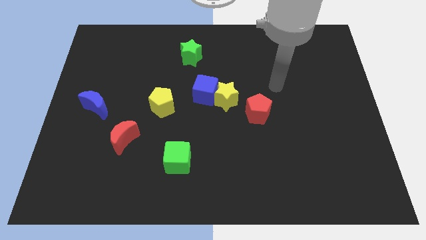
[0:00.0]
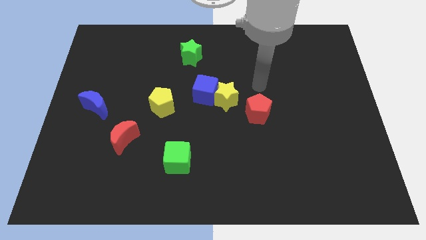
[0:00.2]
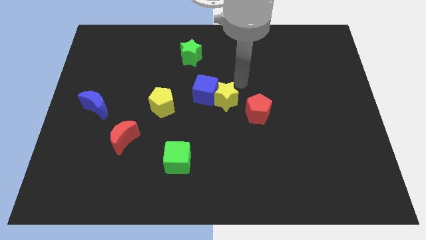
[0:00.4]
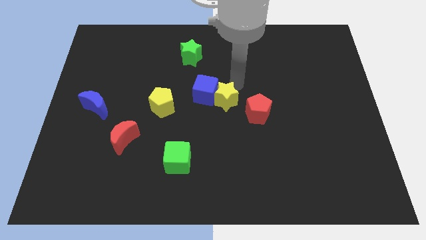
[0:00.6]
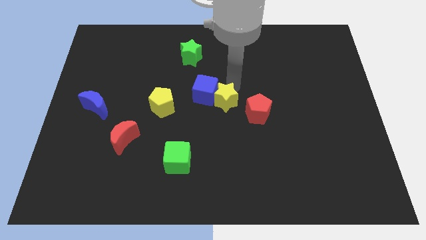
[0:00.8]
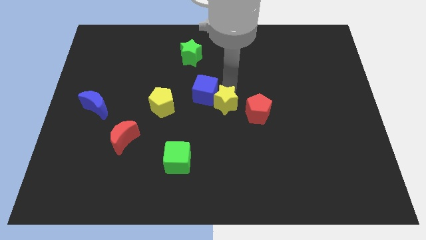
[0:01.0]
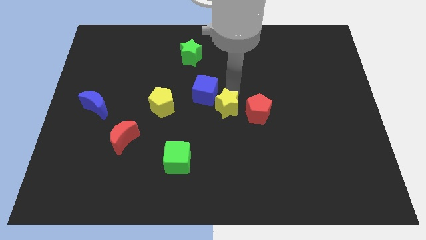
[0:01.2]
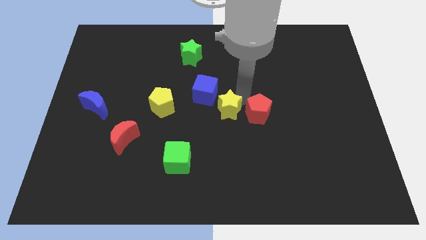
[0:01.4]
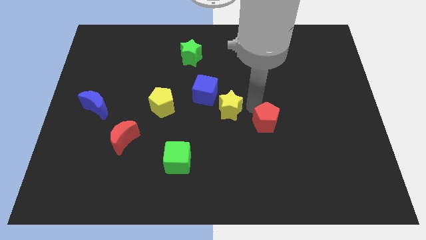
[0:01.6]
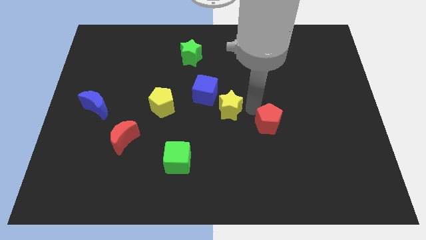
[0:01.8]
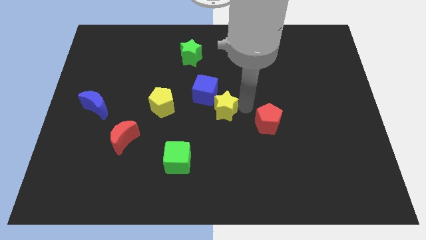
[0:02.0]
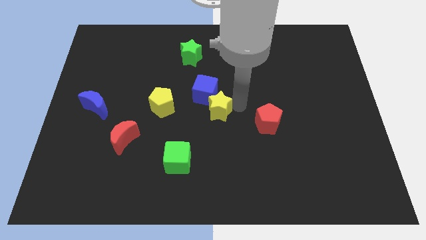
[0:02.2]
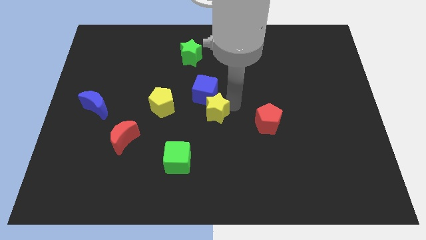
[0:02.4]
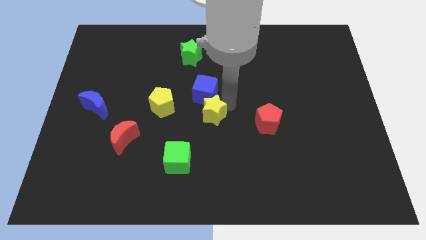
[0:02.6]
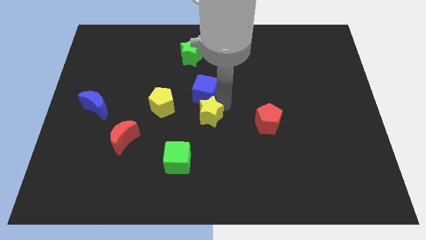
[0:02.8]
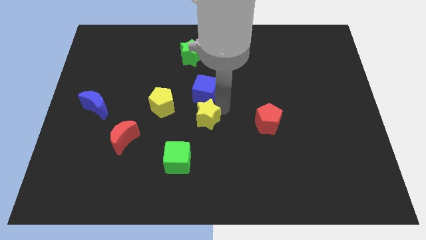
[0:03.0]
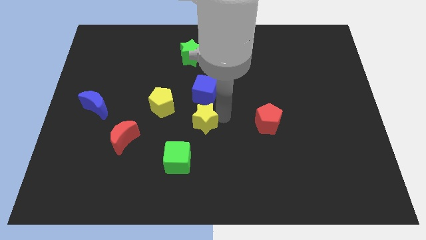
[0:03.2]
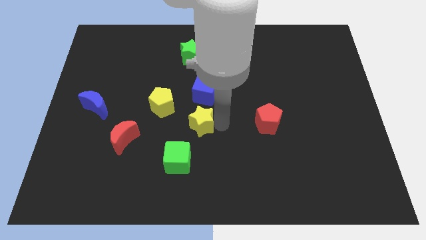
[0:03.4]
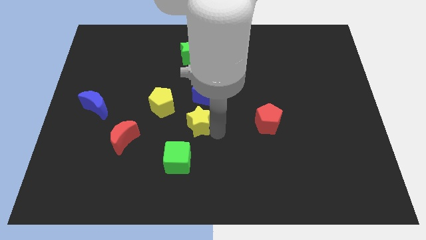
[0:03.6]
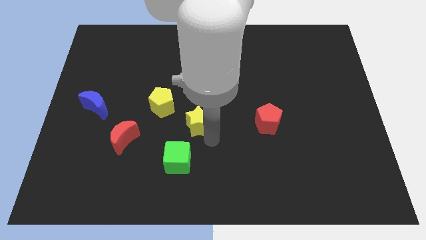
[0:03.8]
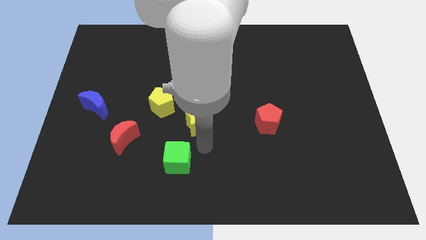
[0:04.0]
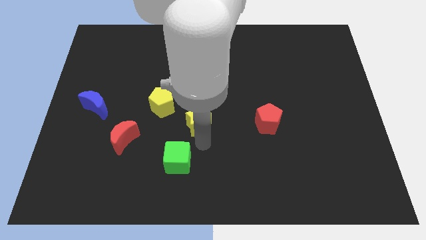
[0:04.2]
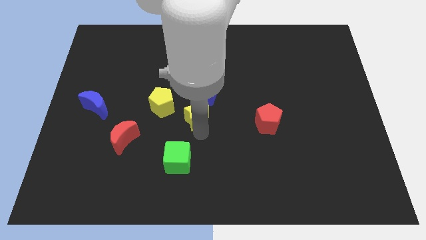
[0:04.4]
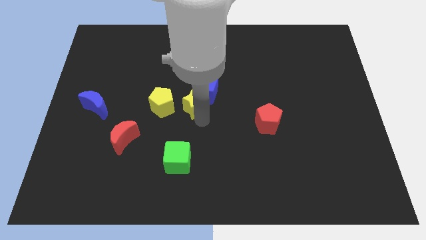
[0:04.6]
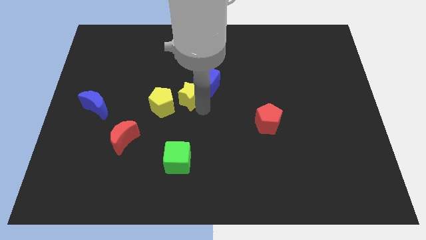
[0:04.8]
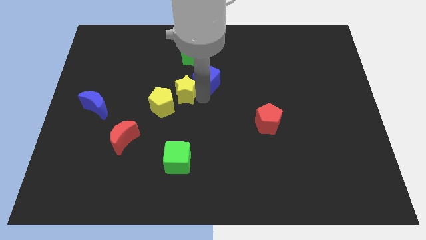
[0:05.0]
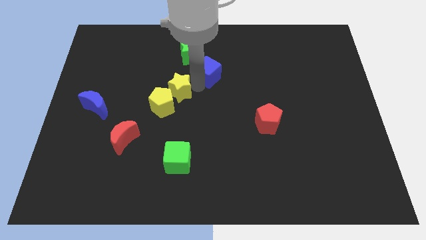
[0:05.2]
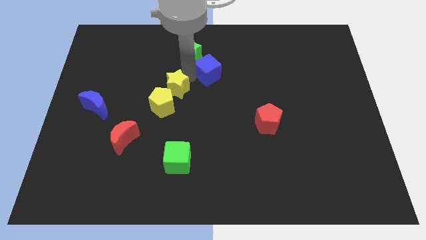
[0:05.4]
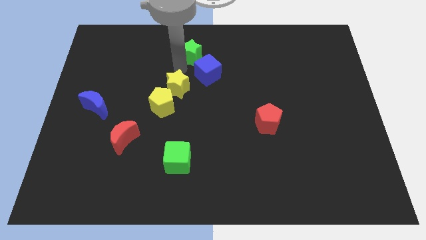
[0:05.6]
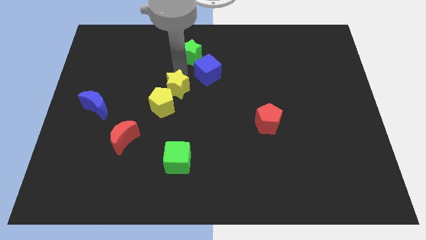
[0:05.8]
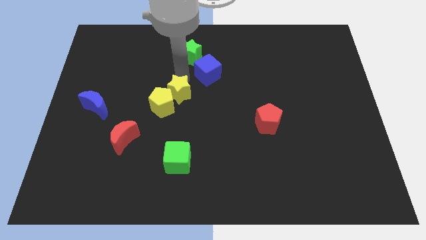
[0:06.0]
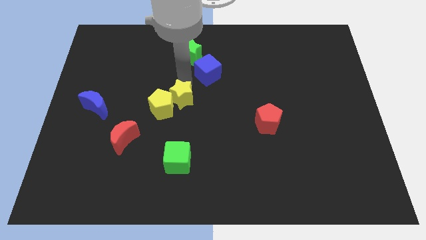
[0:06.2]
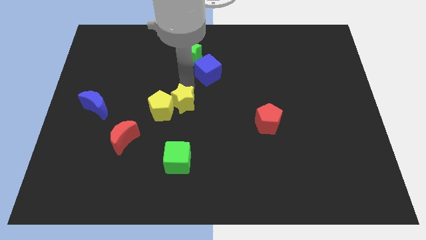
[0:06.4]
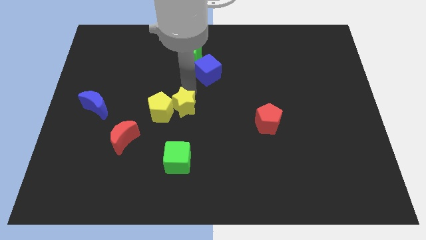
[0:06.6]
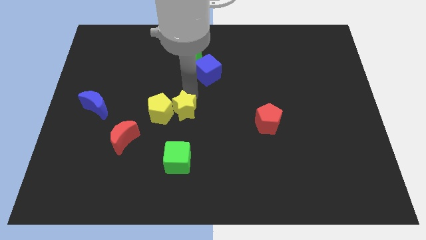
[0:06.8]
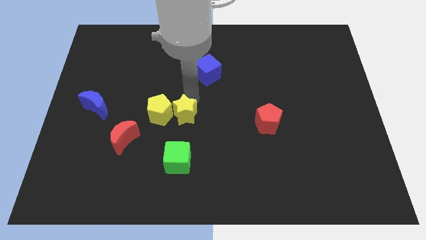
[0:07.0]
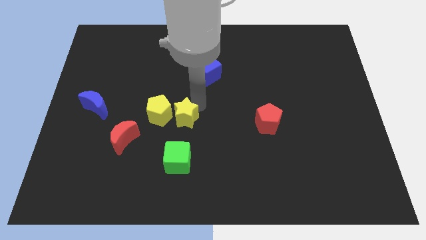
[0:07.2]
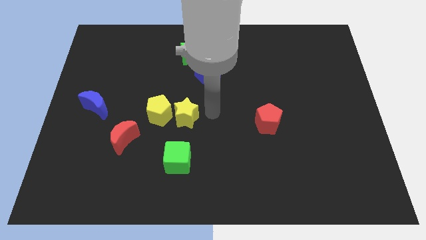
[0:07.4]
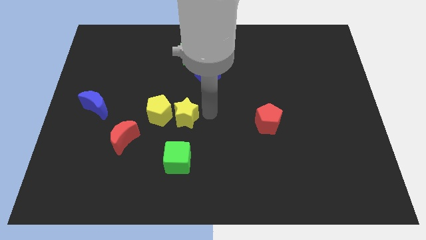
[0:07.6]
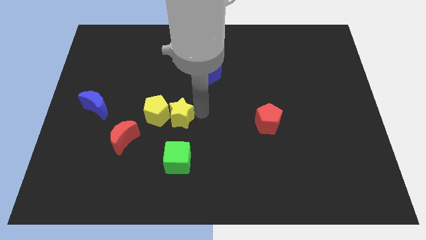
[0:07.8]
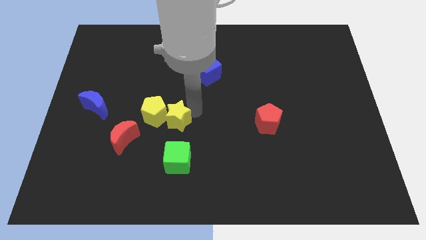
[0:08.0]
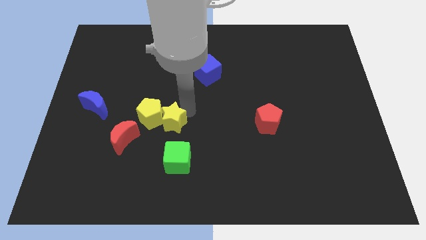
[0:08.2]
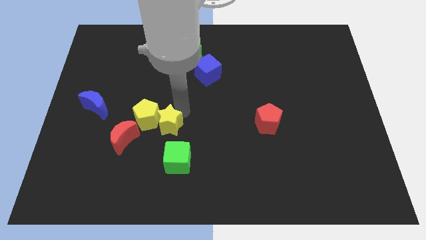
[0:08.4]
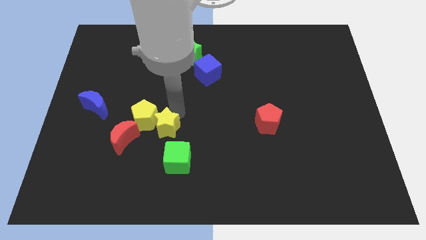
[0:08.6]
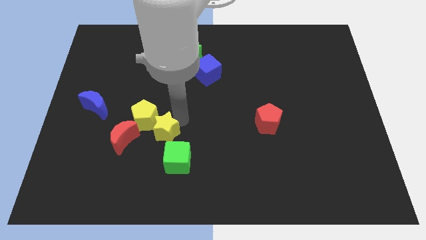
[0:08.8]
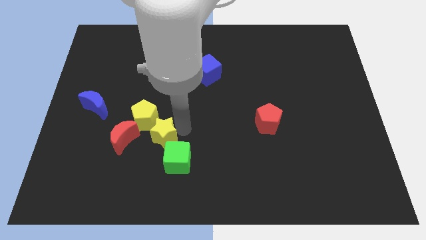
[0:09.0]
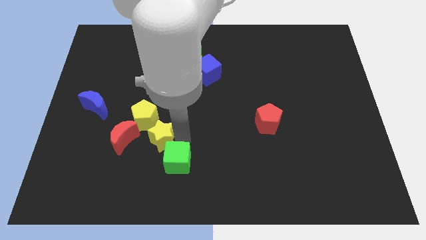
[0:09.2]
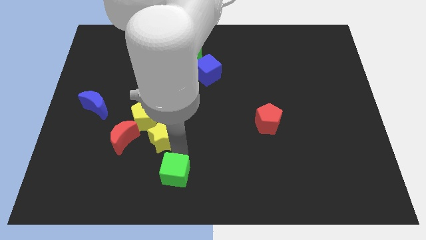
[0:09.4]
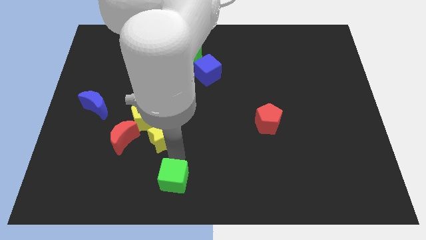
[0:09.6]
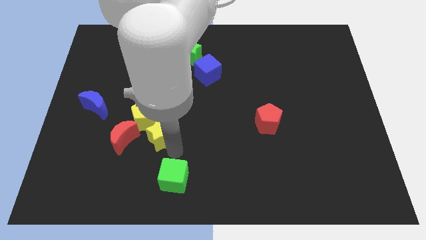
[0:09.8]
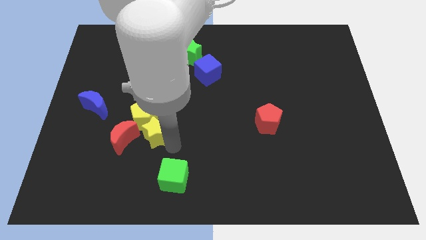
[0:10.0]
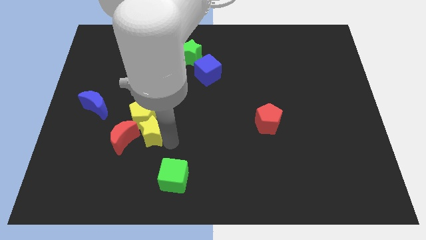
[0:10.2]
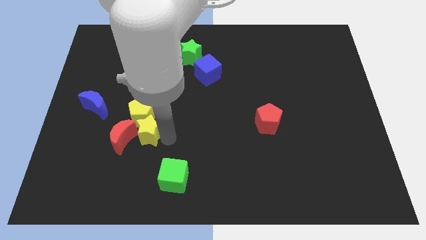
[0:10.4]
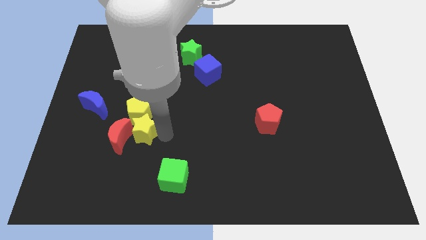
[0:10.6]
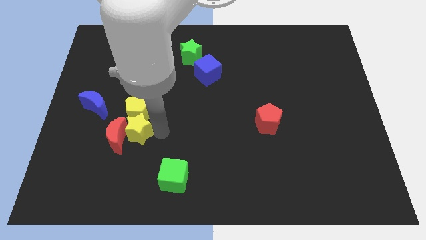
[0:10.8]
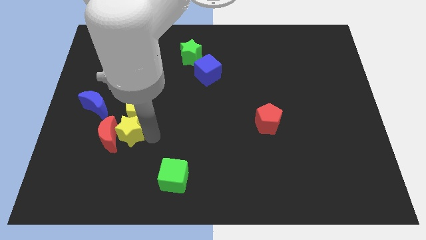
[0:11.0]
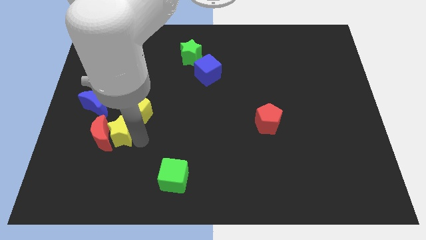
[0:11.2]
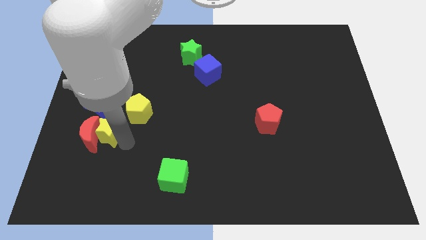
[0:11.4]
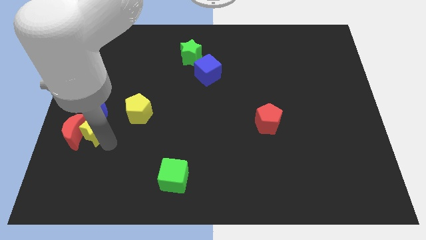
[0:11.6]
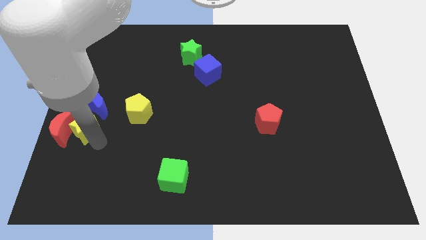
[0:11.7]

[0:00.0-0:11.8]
put the yellow star to the left side

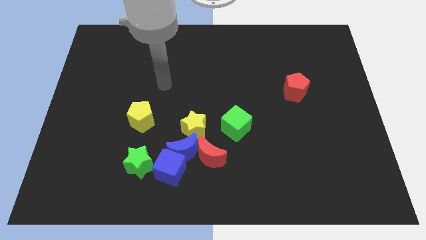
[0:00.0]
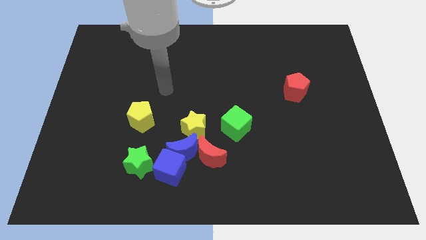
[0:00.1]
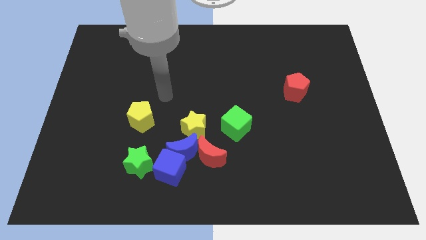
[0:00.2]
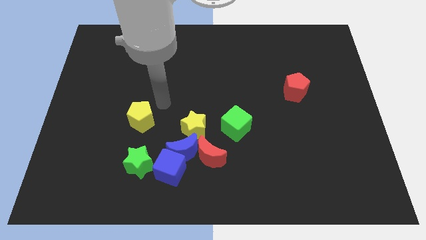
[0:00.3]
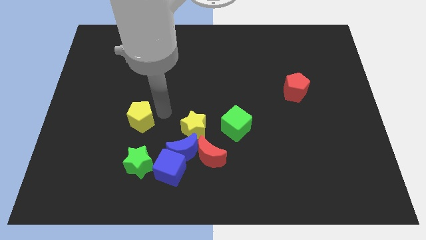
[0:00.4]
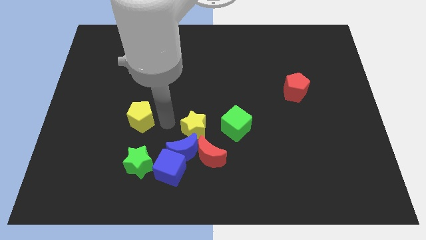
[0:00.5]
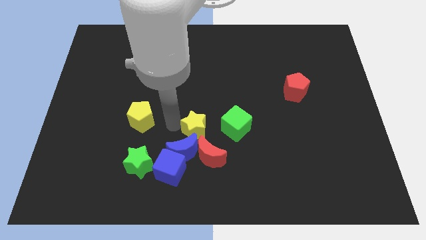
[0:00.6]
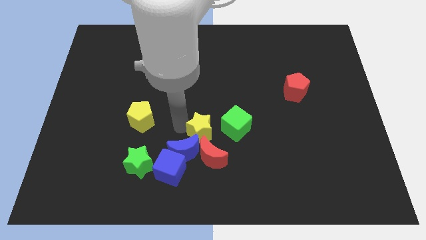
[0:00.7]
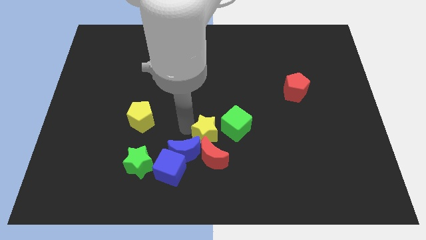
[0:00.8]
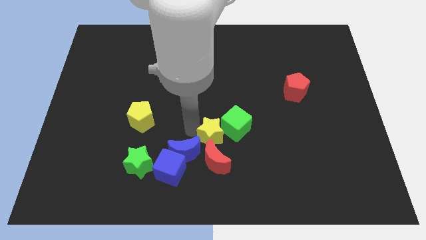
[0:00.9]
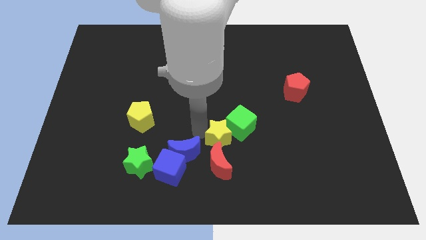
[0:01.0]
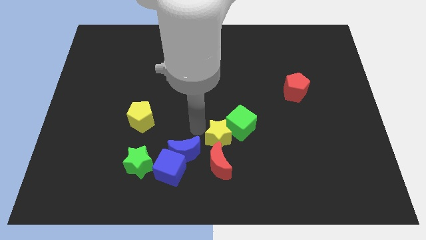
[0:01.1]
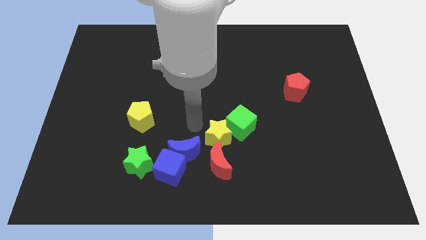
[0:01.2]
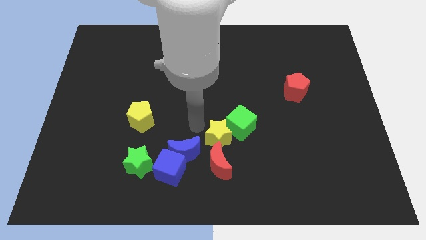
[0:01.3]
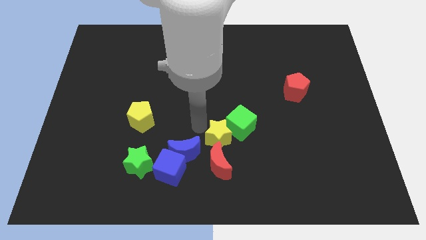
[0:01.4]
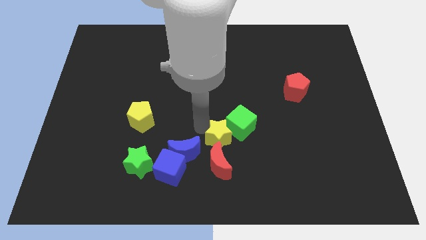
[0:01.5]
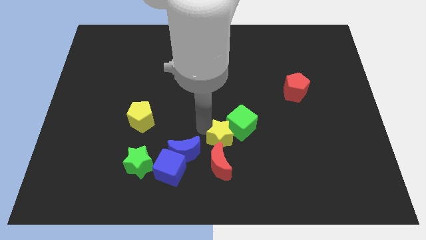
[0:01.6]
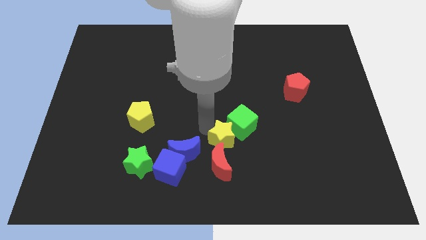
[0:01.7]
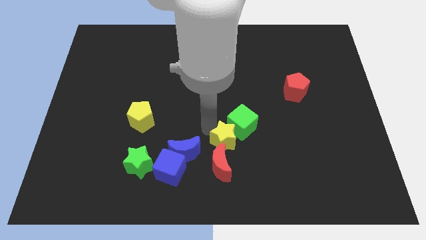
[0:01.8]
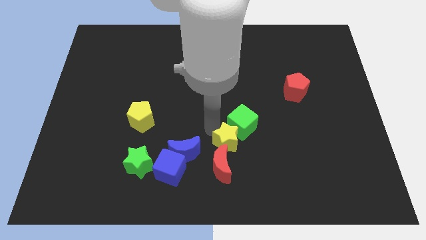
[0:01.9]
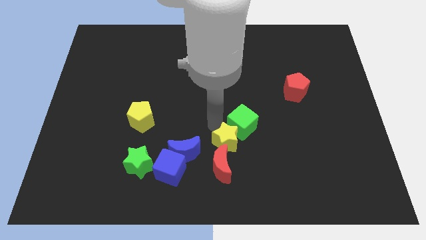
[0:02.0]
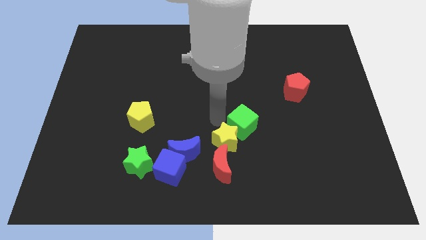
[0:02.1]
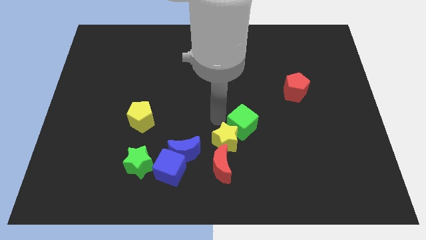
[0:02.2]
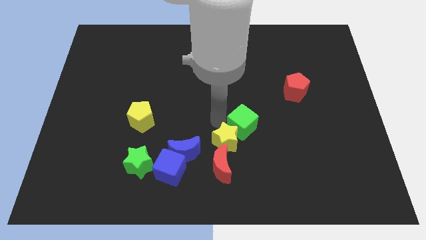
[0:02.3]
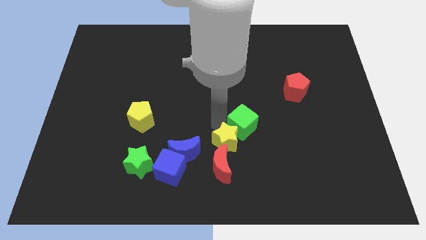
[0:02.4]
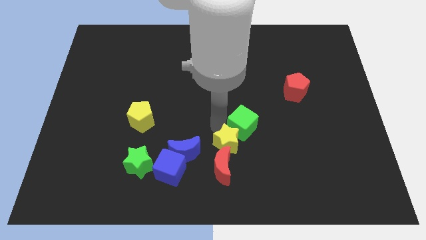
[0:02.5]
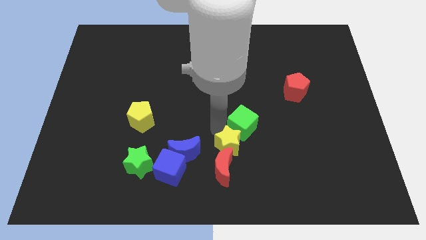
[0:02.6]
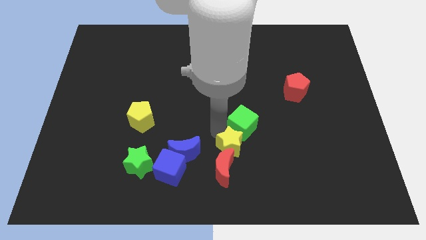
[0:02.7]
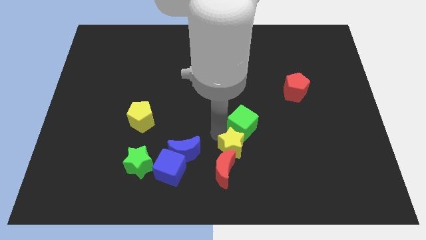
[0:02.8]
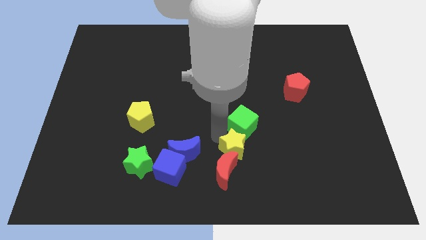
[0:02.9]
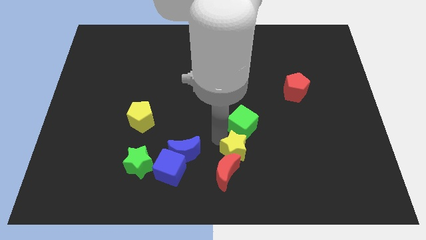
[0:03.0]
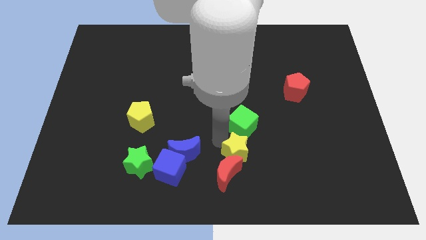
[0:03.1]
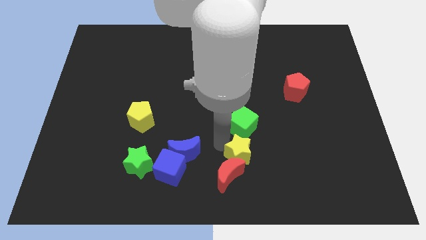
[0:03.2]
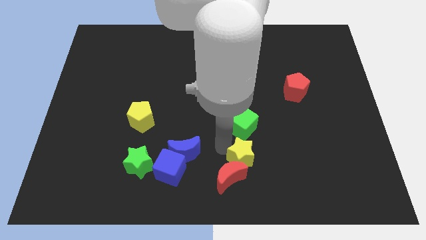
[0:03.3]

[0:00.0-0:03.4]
put the yellow star to the bottom
